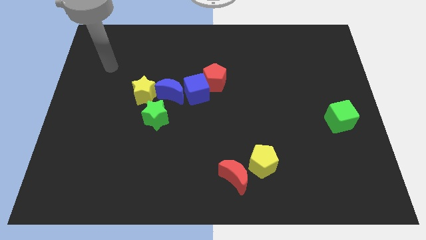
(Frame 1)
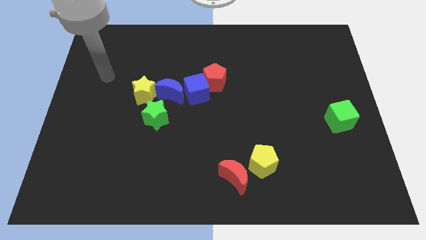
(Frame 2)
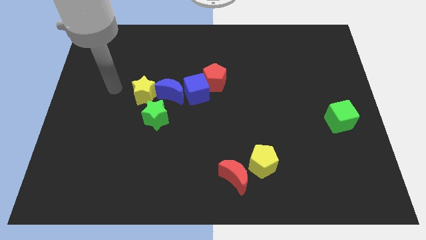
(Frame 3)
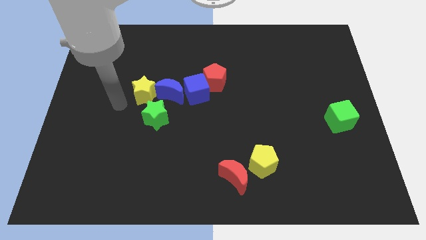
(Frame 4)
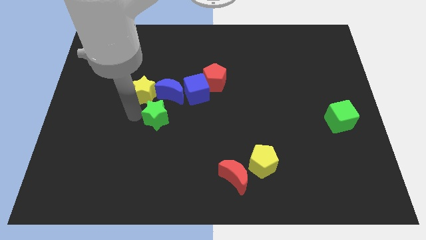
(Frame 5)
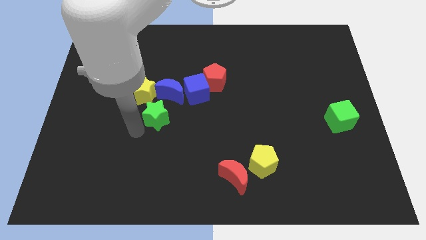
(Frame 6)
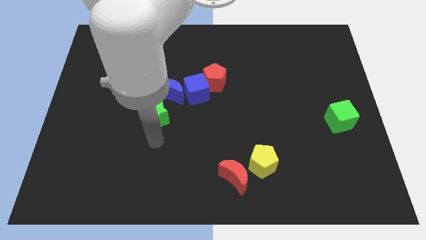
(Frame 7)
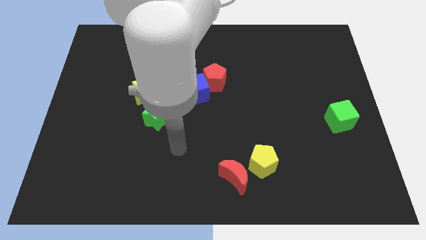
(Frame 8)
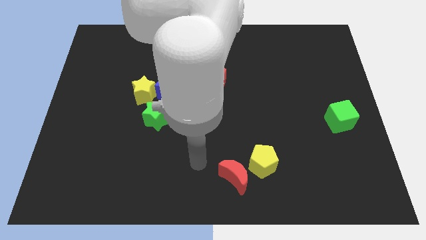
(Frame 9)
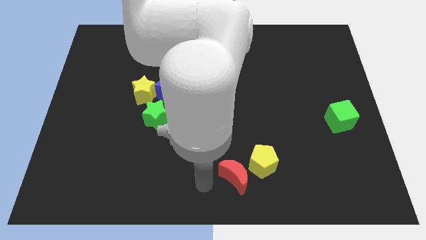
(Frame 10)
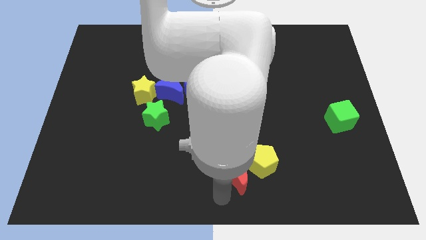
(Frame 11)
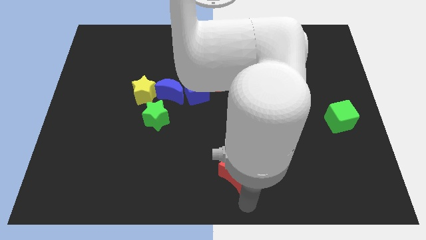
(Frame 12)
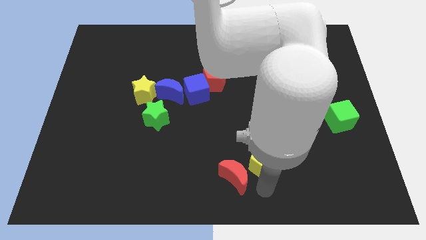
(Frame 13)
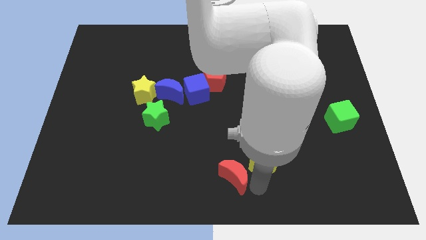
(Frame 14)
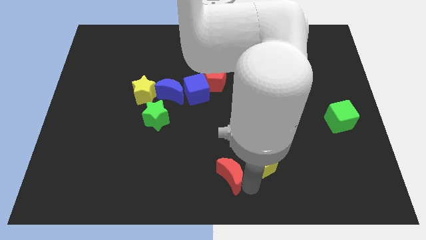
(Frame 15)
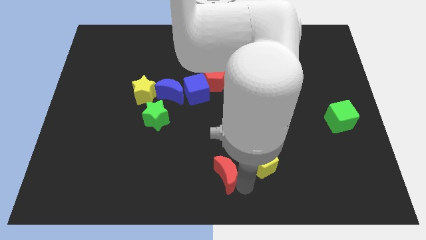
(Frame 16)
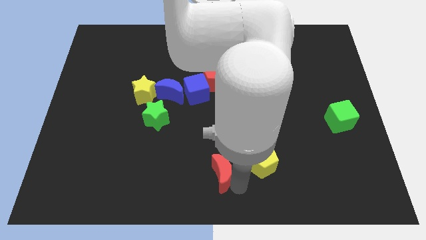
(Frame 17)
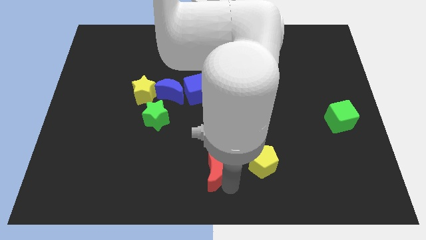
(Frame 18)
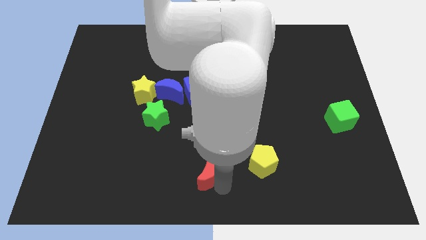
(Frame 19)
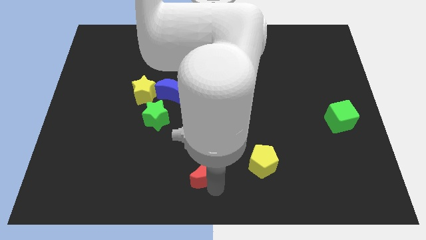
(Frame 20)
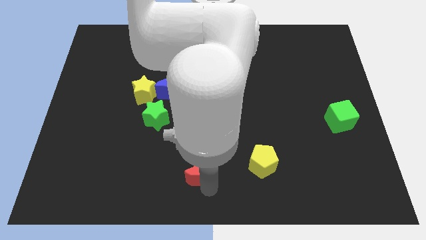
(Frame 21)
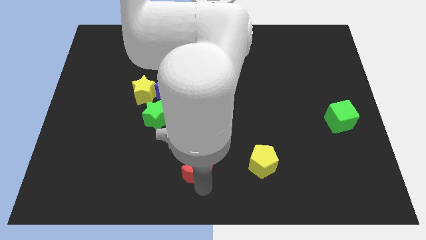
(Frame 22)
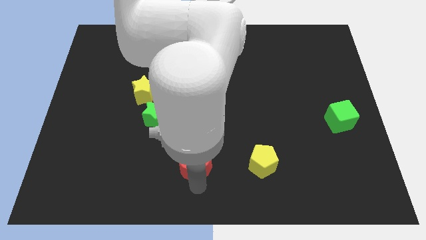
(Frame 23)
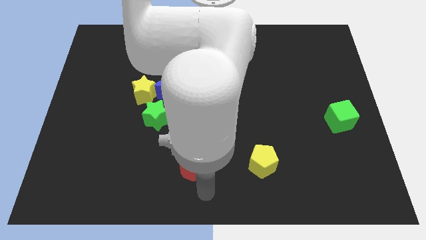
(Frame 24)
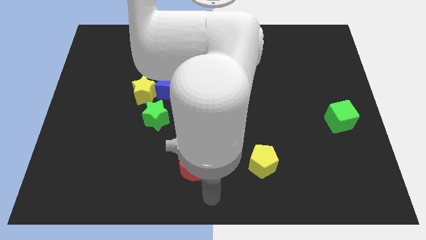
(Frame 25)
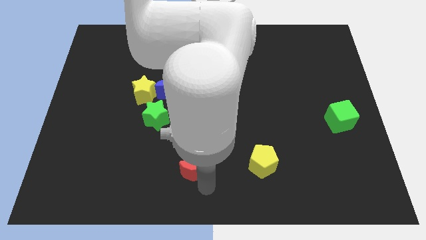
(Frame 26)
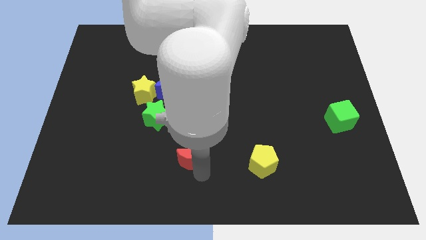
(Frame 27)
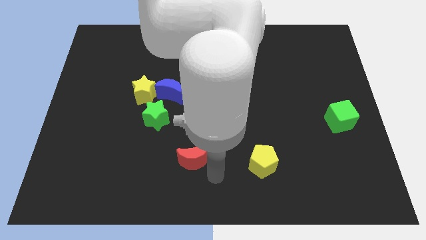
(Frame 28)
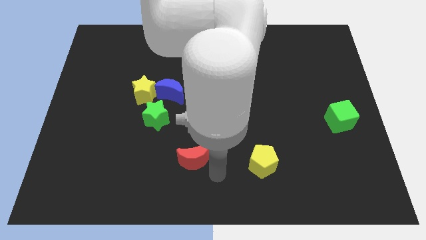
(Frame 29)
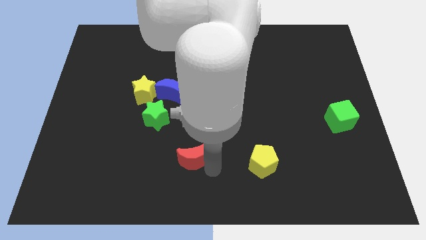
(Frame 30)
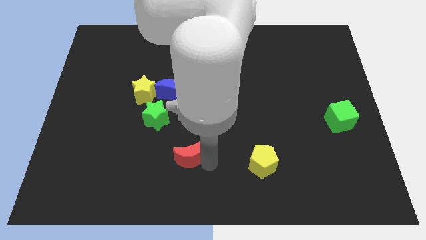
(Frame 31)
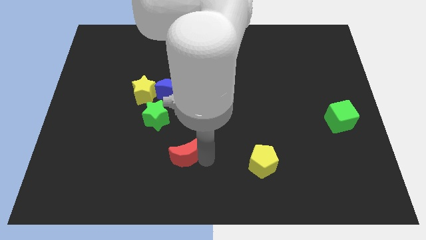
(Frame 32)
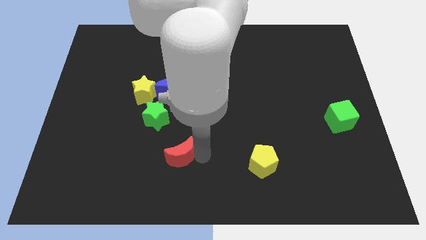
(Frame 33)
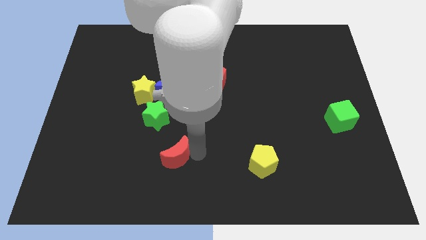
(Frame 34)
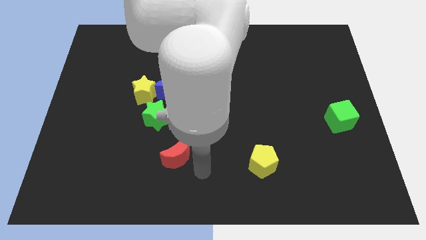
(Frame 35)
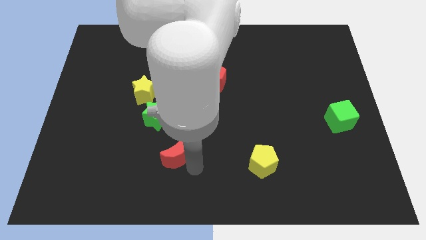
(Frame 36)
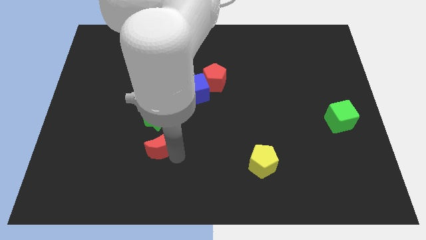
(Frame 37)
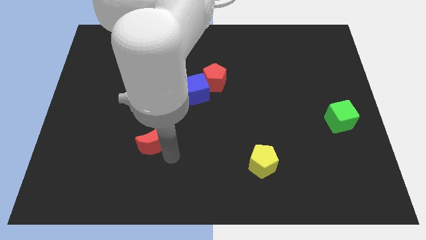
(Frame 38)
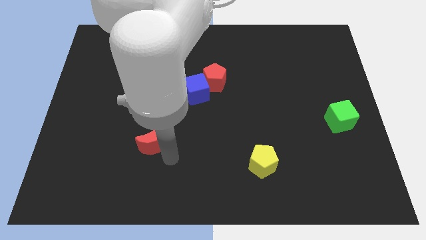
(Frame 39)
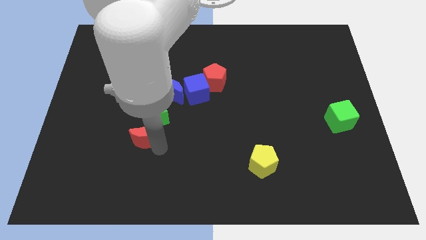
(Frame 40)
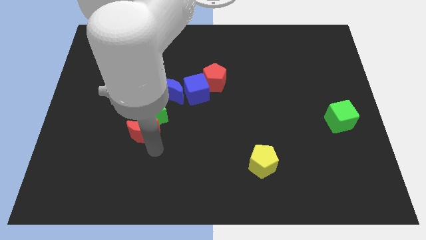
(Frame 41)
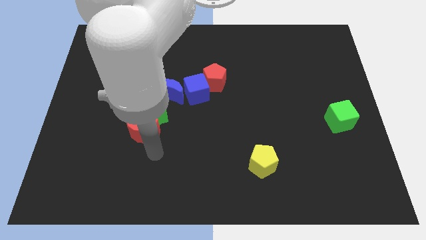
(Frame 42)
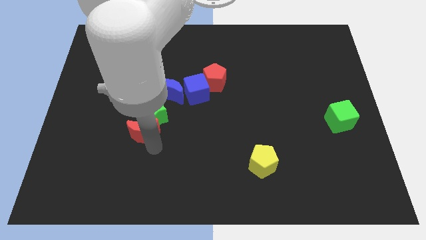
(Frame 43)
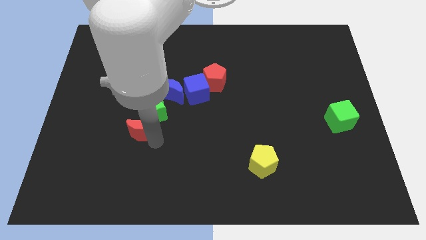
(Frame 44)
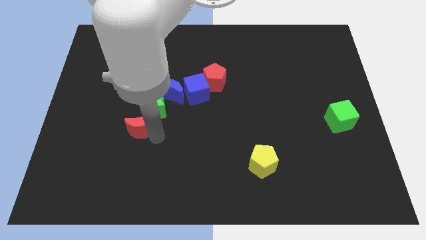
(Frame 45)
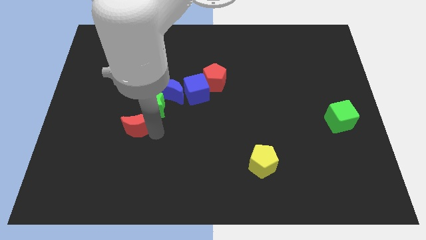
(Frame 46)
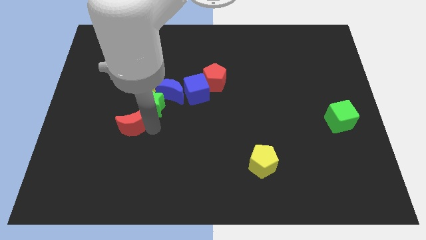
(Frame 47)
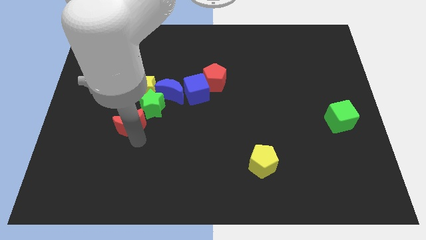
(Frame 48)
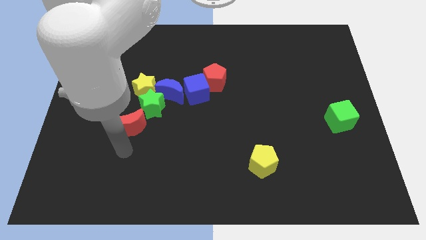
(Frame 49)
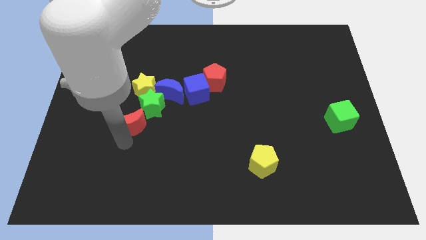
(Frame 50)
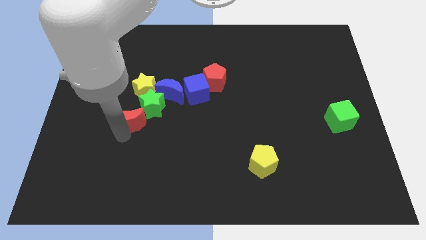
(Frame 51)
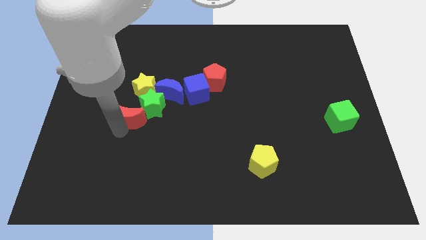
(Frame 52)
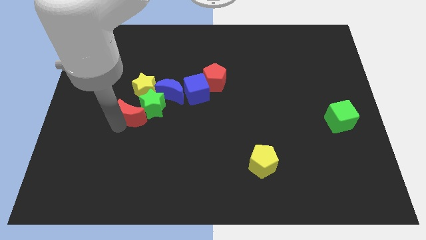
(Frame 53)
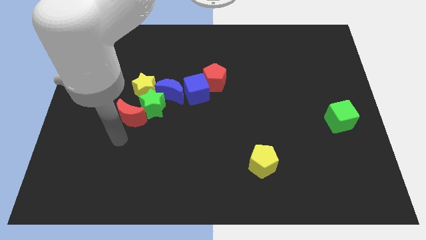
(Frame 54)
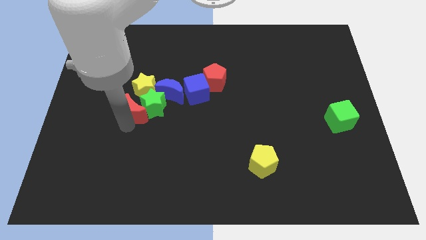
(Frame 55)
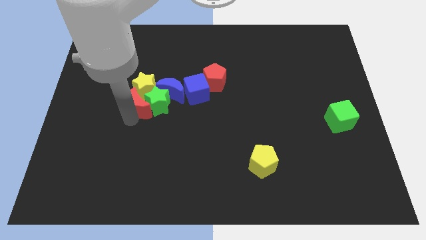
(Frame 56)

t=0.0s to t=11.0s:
slide the red moon towards the yellow star

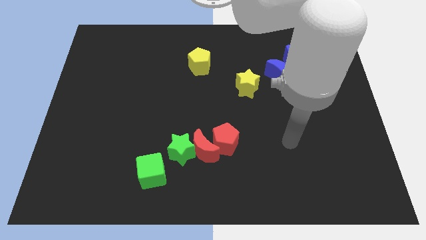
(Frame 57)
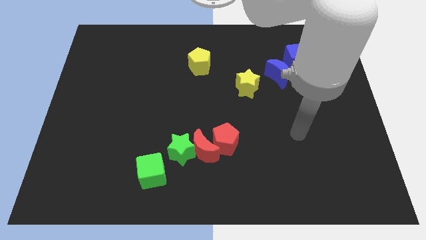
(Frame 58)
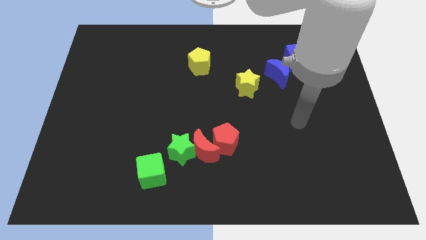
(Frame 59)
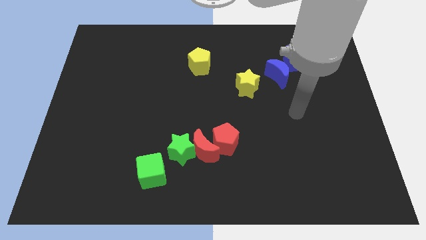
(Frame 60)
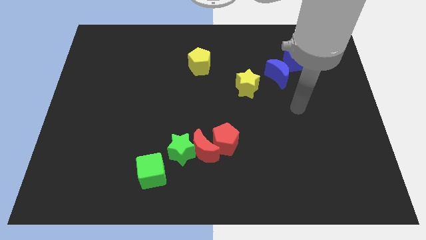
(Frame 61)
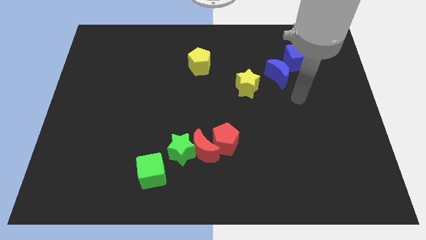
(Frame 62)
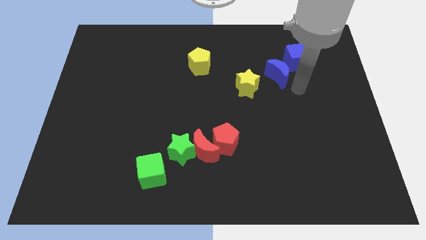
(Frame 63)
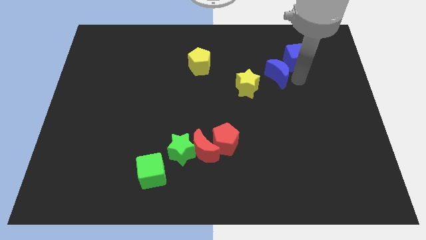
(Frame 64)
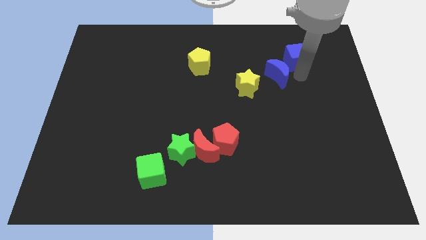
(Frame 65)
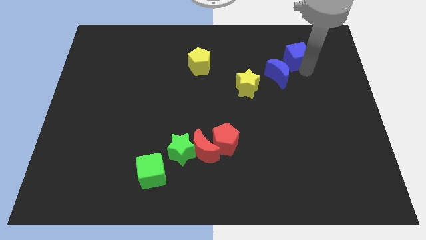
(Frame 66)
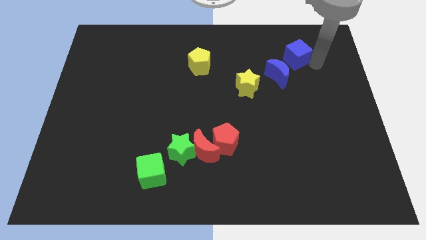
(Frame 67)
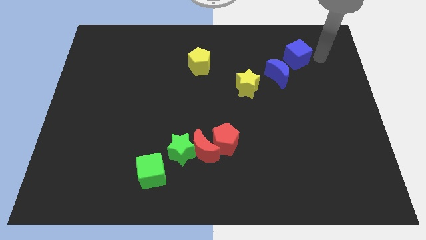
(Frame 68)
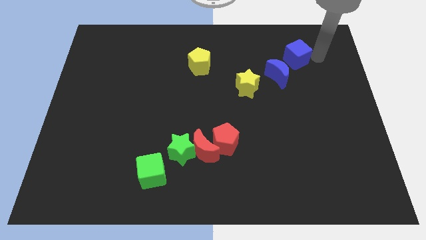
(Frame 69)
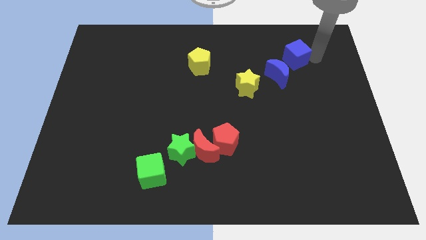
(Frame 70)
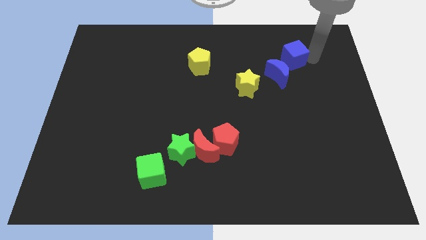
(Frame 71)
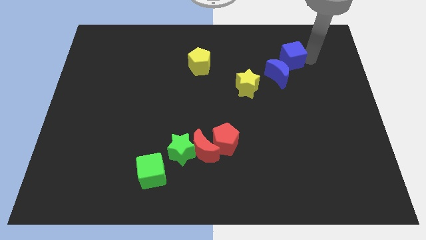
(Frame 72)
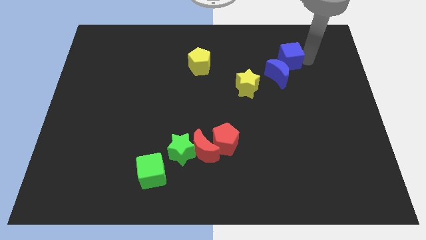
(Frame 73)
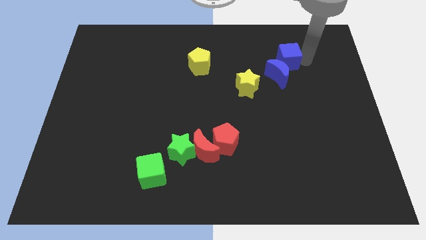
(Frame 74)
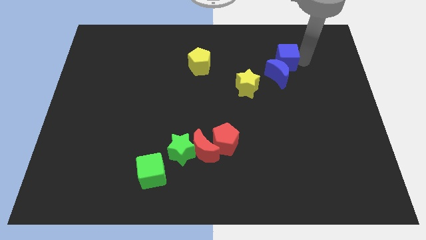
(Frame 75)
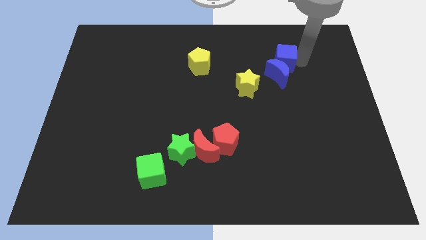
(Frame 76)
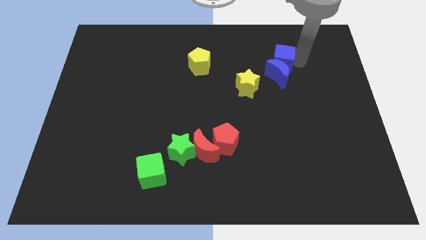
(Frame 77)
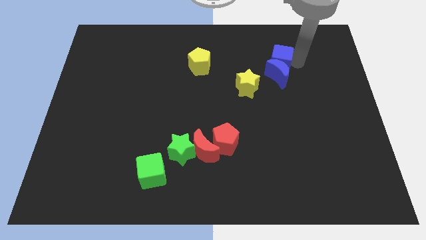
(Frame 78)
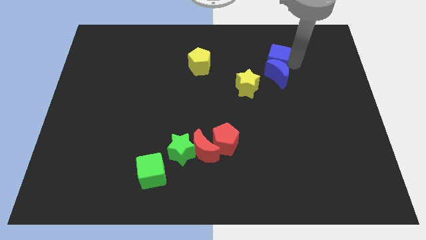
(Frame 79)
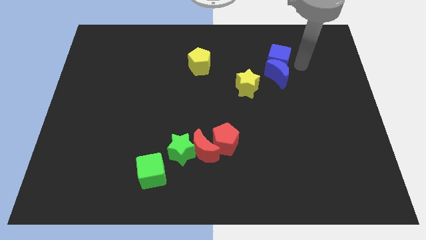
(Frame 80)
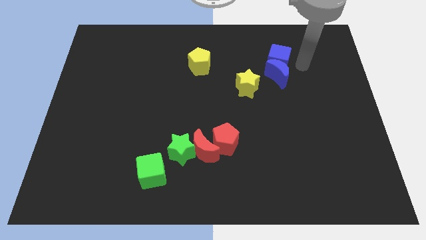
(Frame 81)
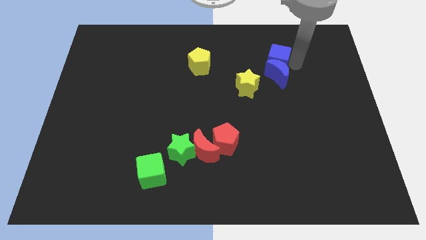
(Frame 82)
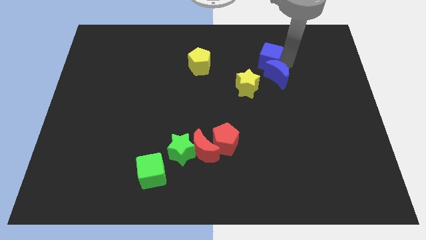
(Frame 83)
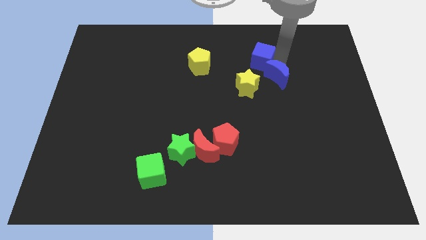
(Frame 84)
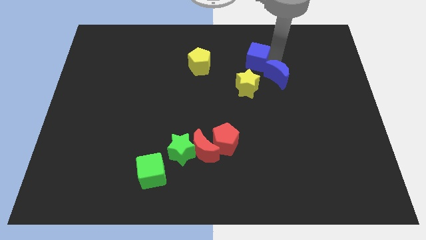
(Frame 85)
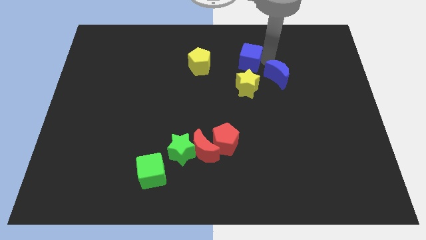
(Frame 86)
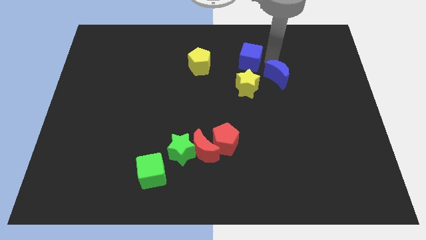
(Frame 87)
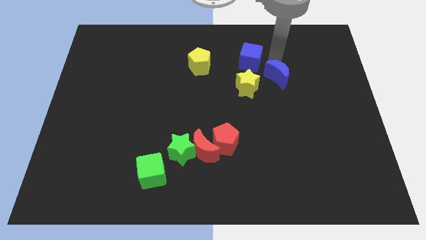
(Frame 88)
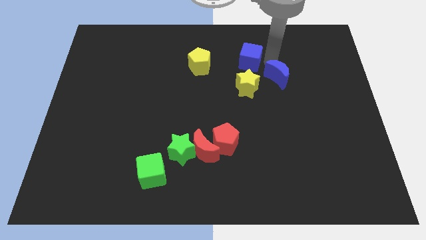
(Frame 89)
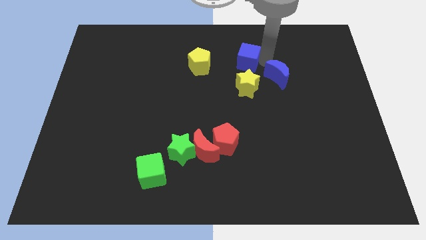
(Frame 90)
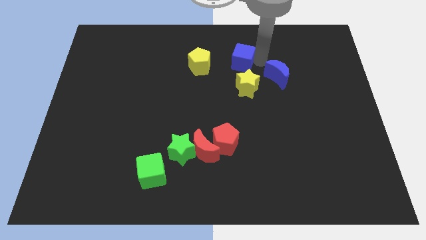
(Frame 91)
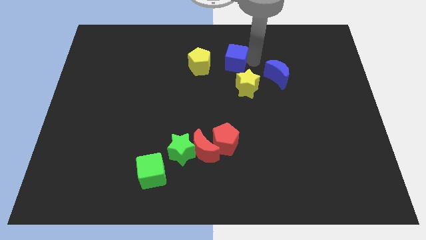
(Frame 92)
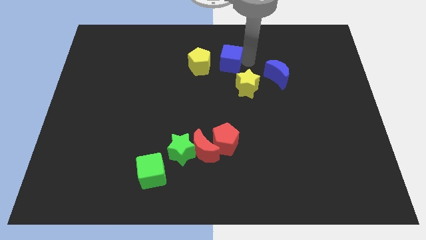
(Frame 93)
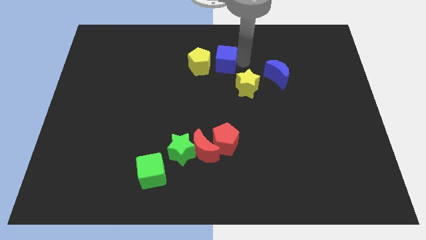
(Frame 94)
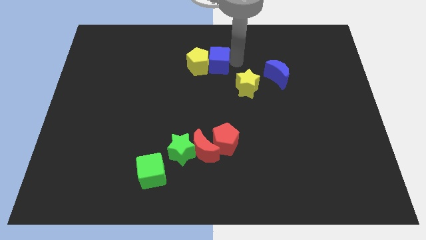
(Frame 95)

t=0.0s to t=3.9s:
slide the blue cube to the yellow pentagon
